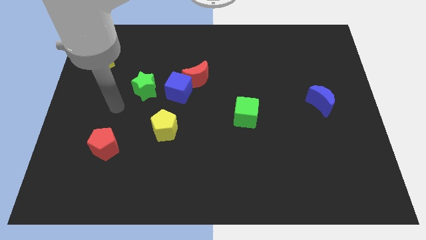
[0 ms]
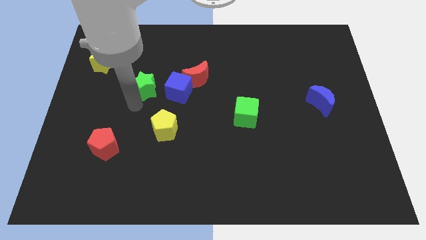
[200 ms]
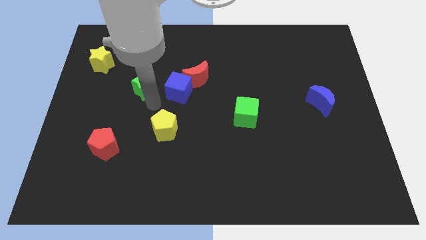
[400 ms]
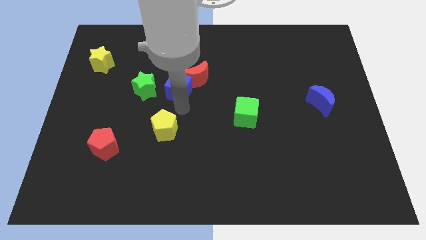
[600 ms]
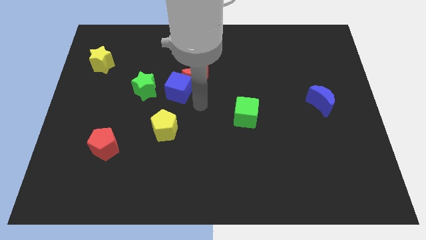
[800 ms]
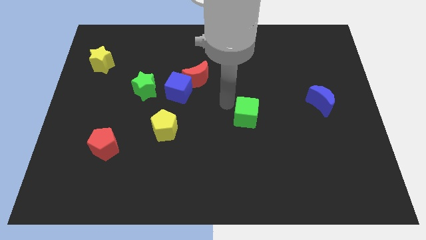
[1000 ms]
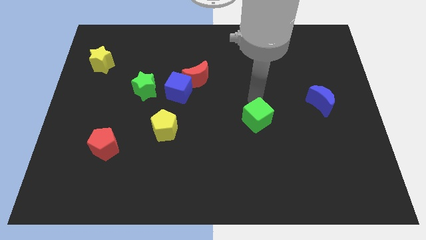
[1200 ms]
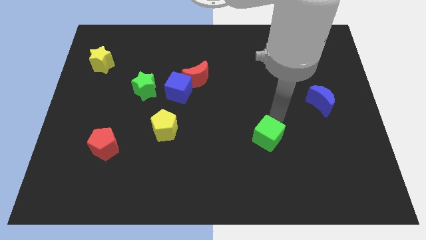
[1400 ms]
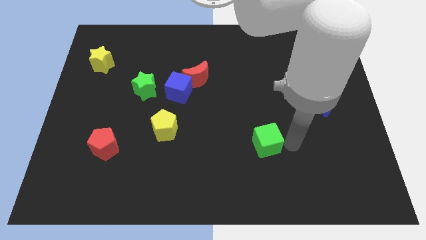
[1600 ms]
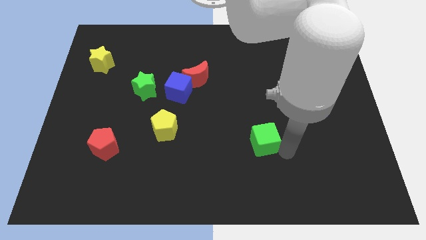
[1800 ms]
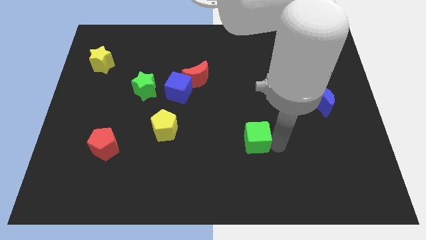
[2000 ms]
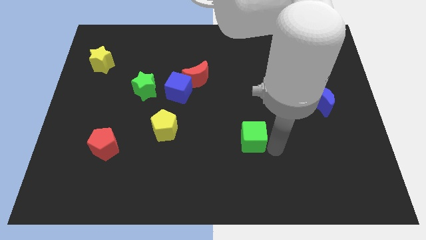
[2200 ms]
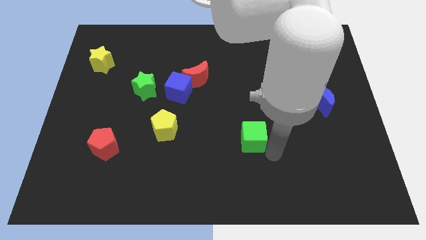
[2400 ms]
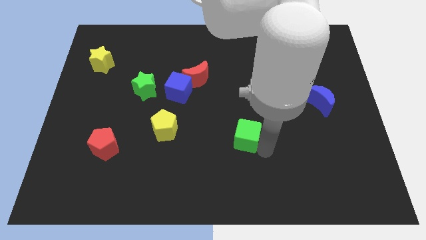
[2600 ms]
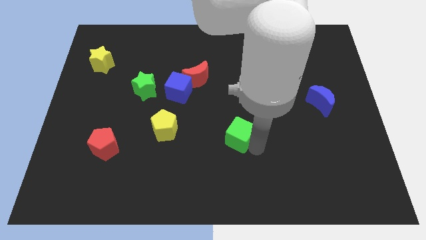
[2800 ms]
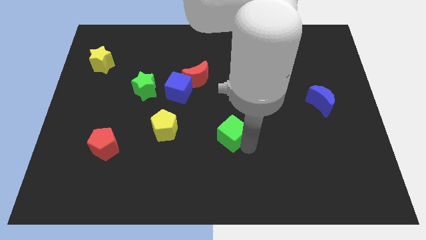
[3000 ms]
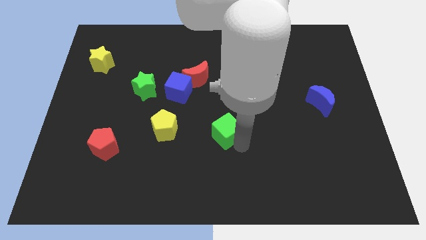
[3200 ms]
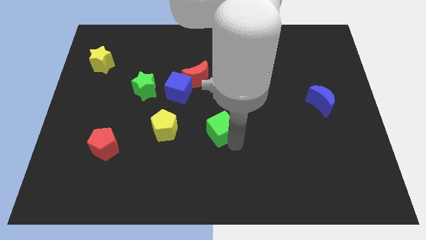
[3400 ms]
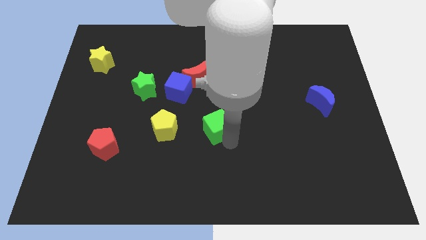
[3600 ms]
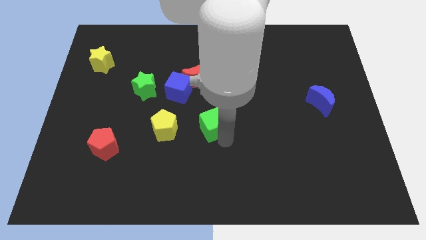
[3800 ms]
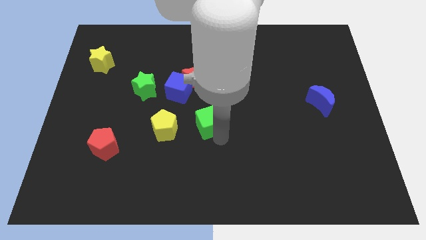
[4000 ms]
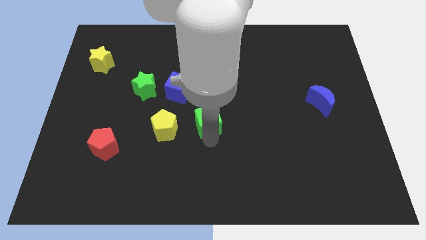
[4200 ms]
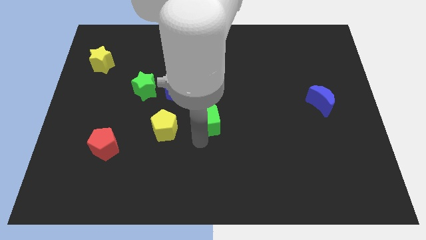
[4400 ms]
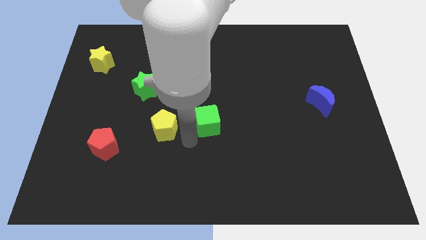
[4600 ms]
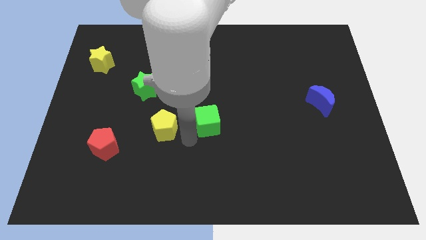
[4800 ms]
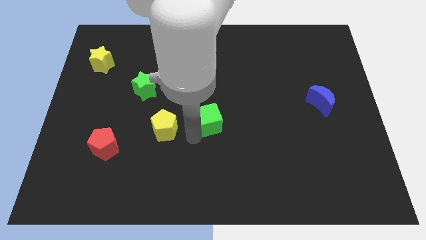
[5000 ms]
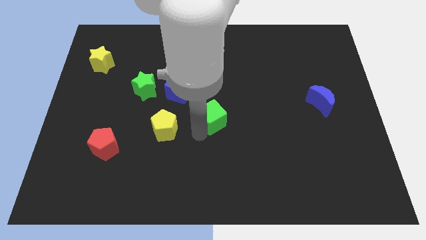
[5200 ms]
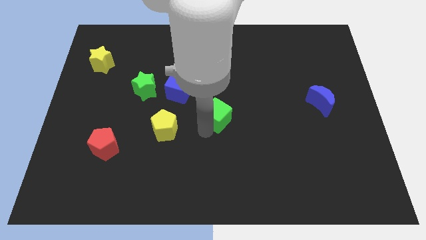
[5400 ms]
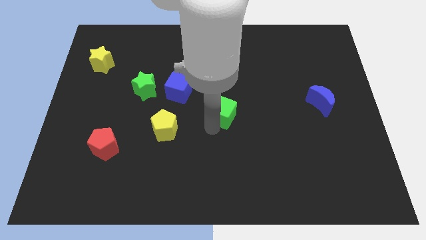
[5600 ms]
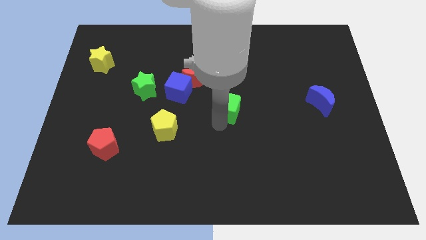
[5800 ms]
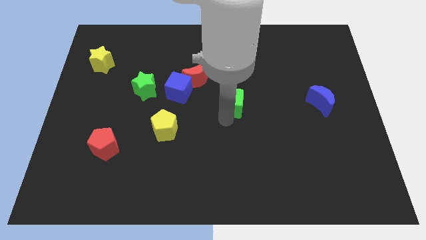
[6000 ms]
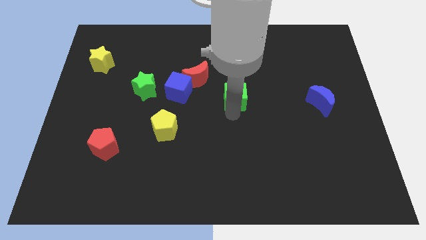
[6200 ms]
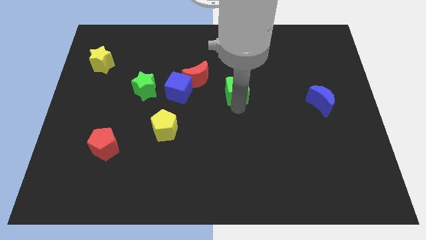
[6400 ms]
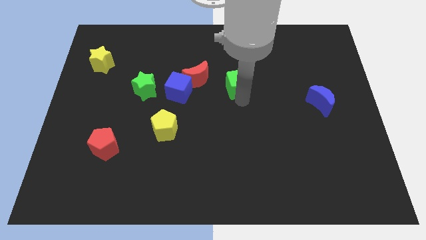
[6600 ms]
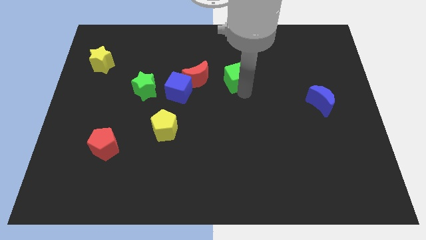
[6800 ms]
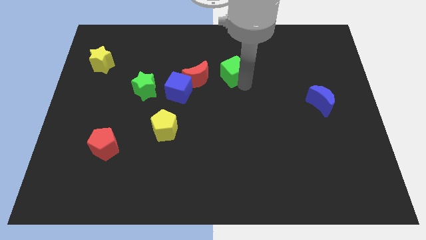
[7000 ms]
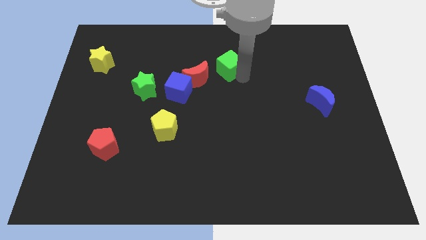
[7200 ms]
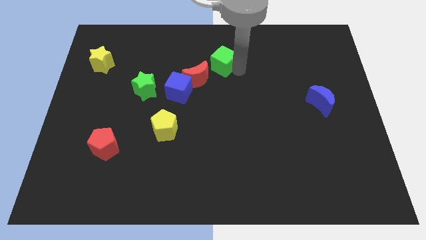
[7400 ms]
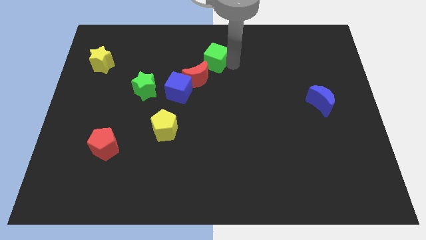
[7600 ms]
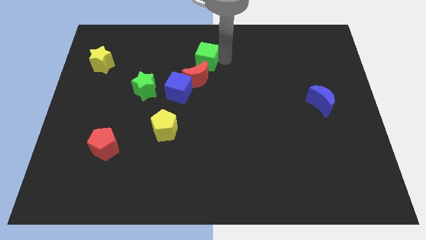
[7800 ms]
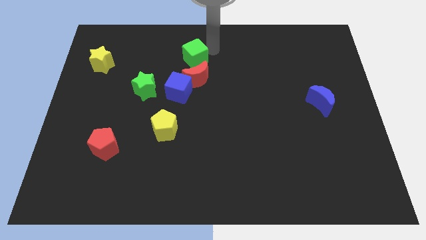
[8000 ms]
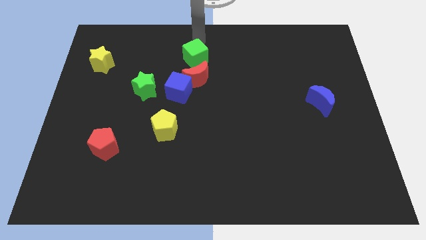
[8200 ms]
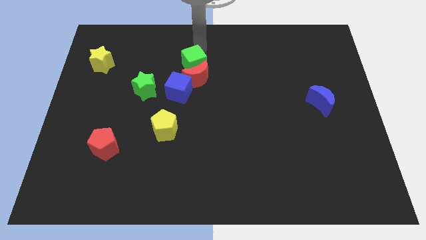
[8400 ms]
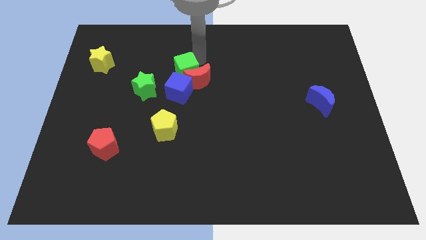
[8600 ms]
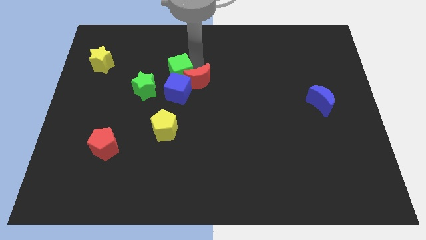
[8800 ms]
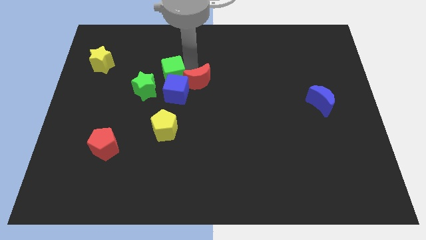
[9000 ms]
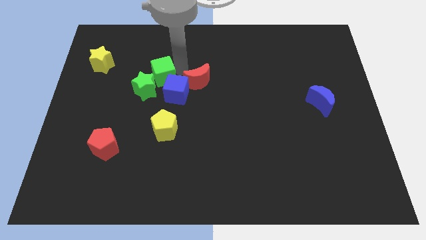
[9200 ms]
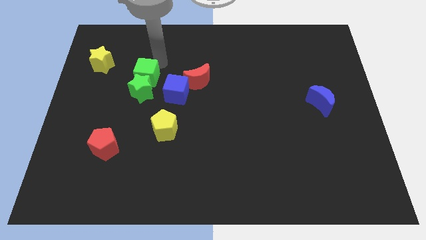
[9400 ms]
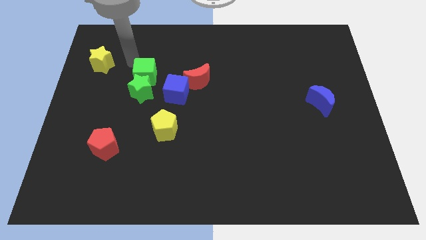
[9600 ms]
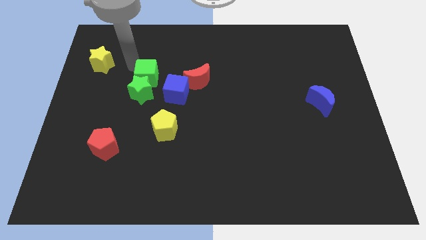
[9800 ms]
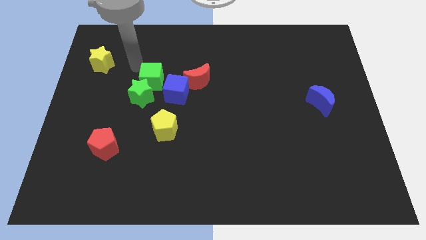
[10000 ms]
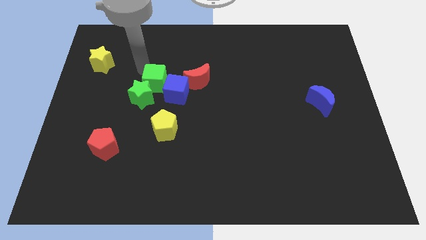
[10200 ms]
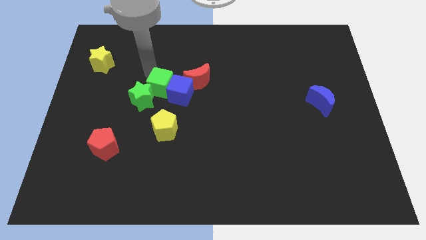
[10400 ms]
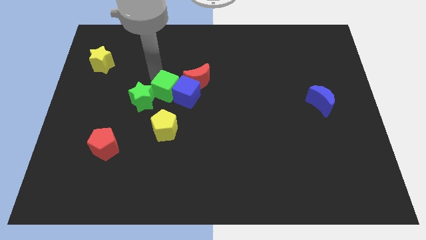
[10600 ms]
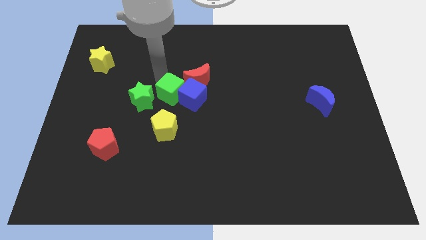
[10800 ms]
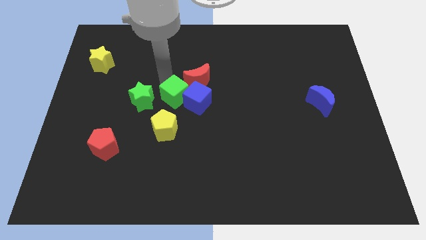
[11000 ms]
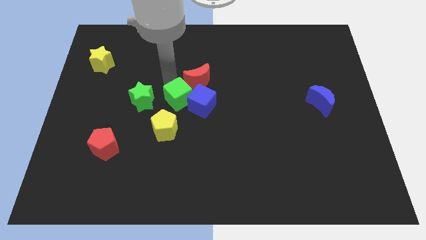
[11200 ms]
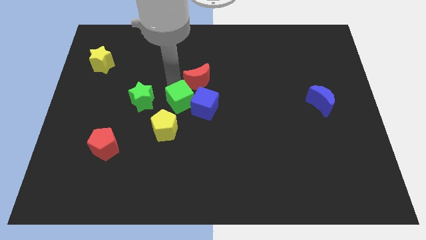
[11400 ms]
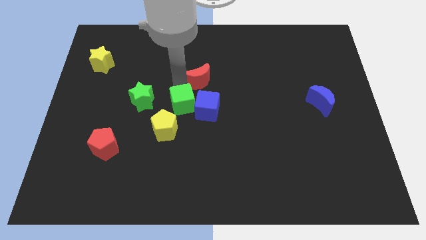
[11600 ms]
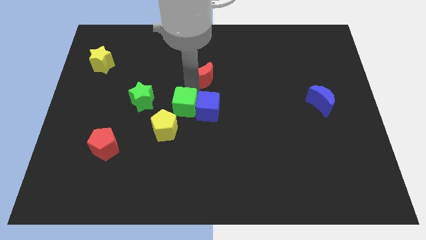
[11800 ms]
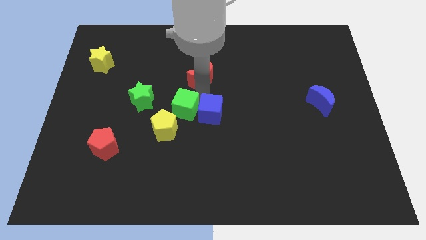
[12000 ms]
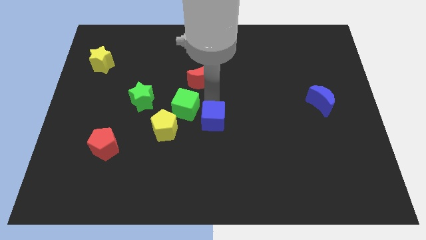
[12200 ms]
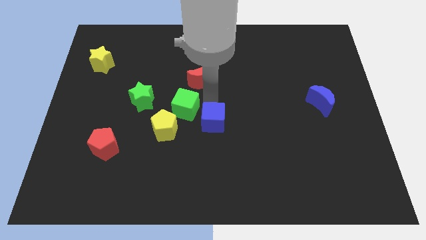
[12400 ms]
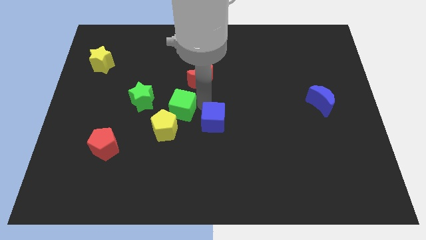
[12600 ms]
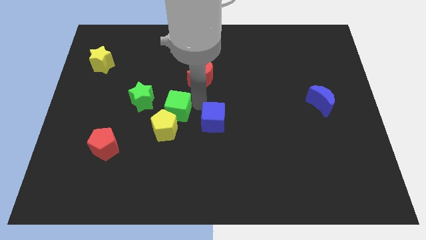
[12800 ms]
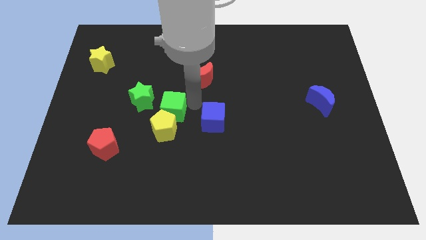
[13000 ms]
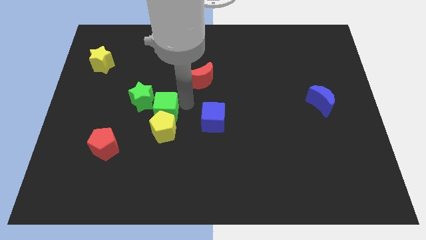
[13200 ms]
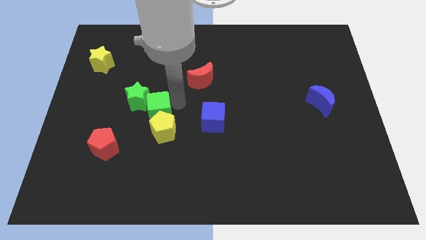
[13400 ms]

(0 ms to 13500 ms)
move the green cube left

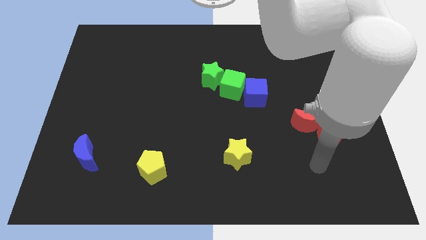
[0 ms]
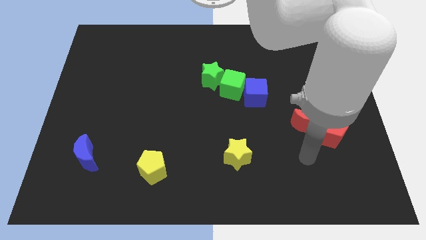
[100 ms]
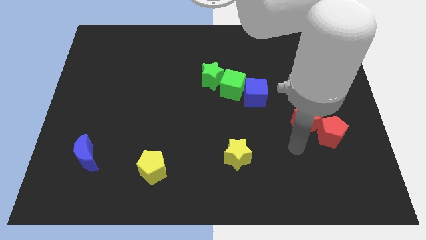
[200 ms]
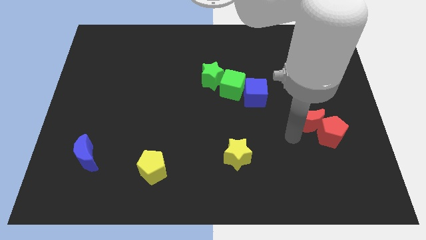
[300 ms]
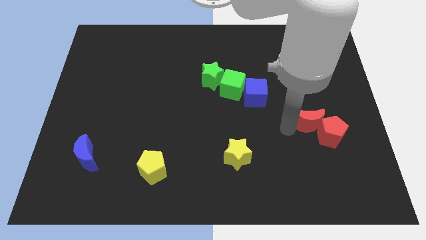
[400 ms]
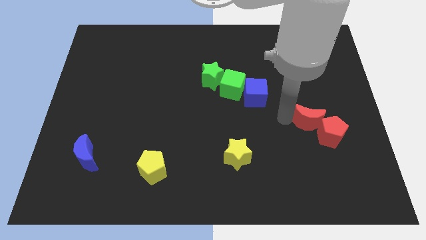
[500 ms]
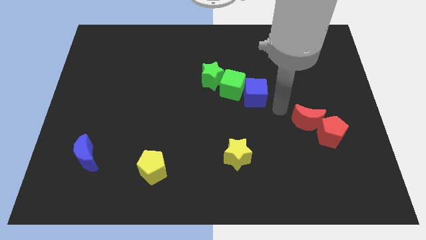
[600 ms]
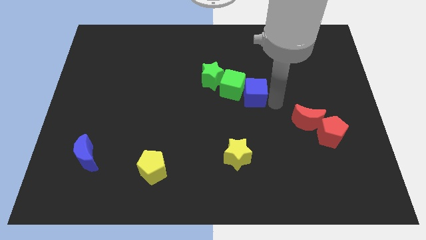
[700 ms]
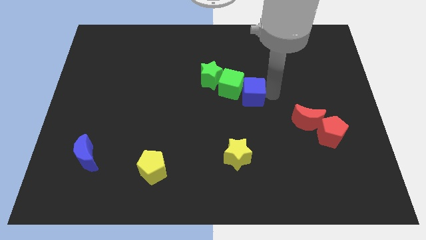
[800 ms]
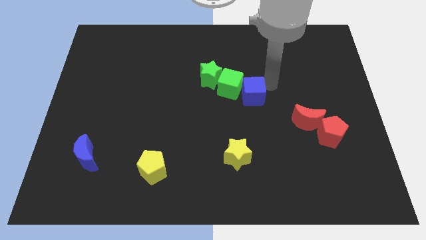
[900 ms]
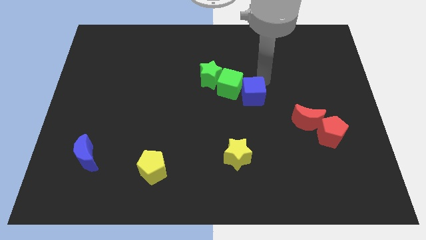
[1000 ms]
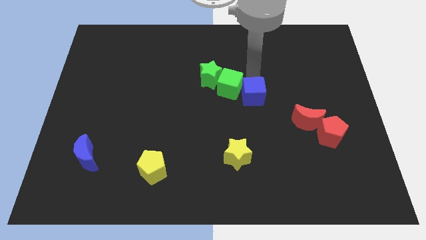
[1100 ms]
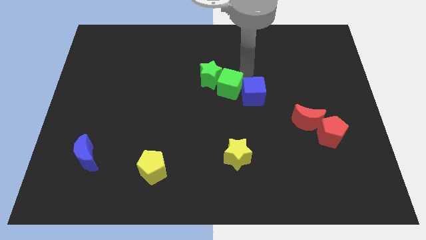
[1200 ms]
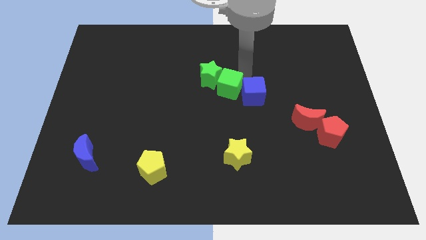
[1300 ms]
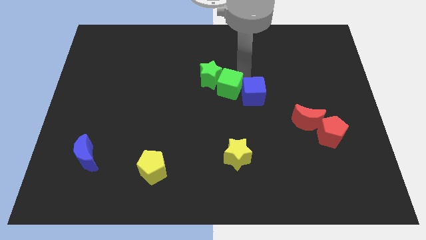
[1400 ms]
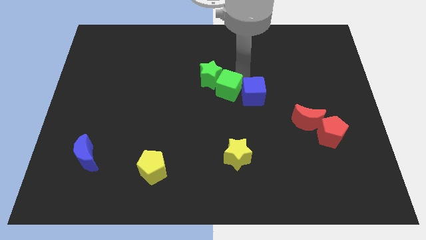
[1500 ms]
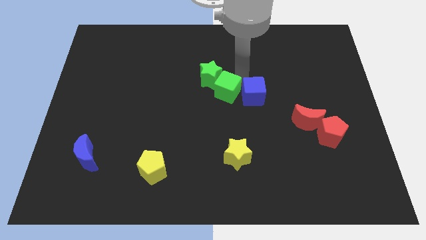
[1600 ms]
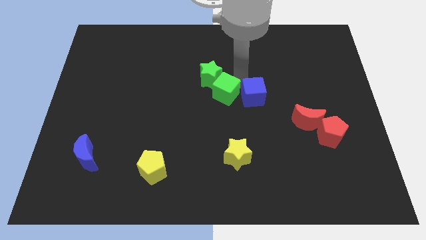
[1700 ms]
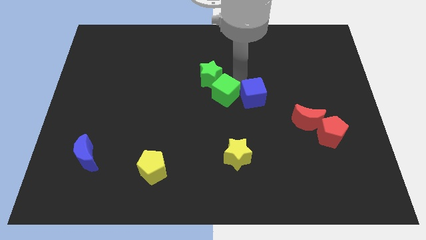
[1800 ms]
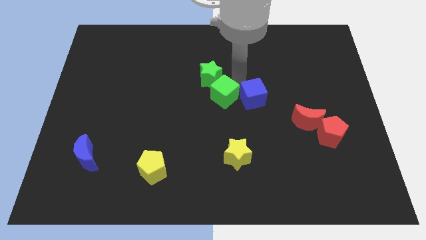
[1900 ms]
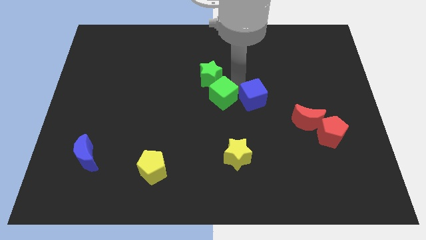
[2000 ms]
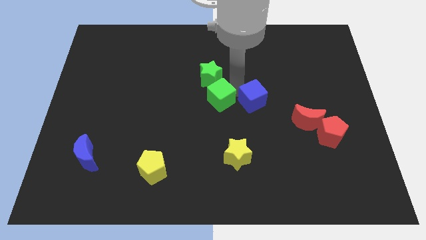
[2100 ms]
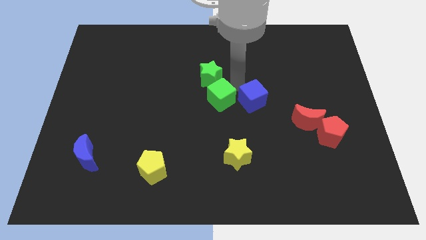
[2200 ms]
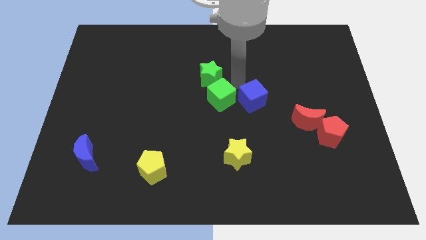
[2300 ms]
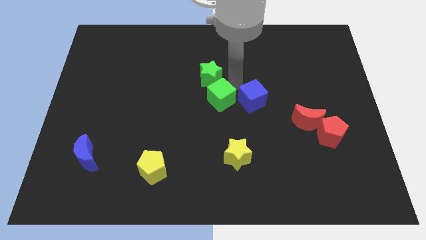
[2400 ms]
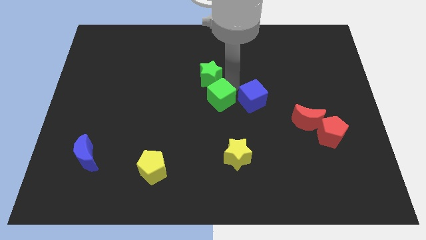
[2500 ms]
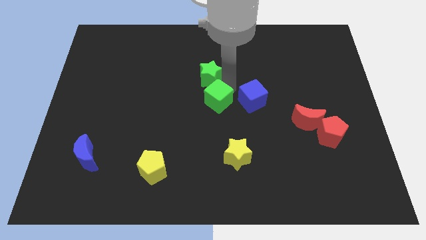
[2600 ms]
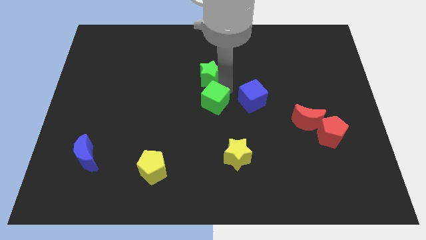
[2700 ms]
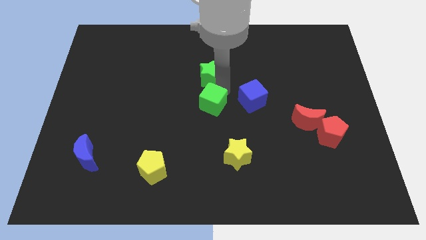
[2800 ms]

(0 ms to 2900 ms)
slightly slide the green cube diagonally downwards and left
